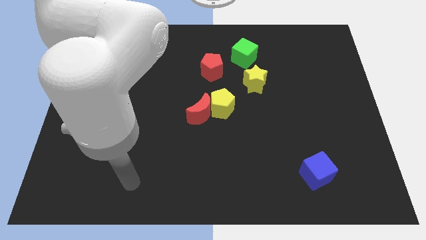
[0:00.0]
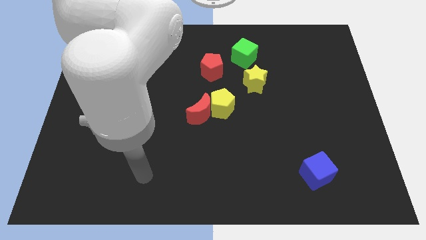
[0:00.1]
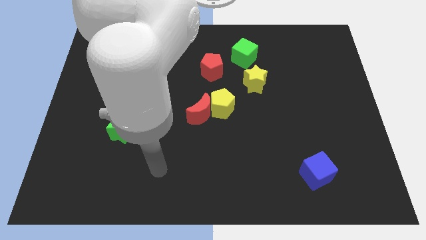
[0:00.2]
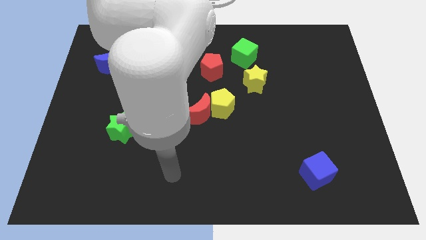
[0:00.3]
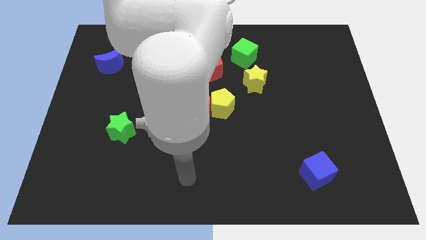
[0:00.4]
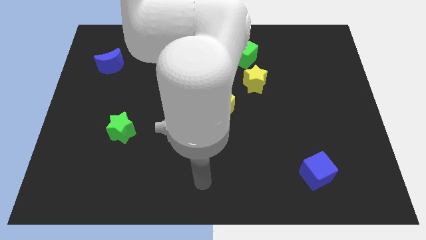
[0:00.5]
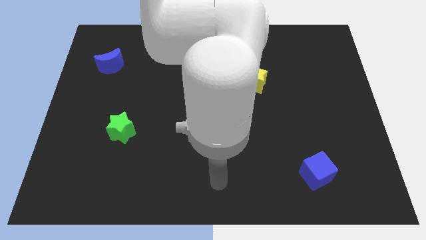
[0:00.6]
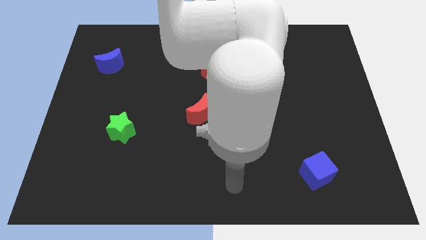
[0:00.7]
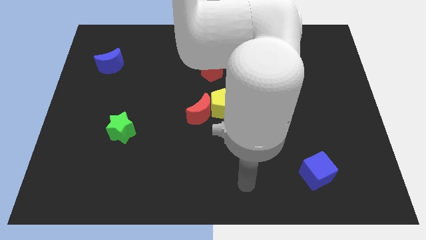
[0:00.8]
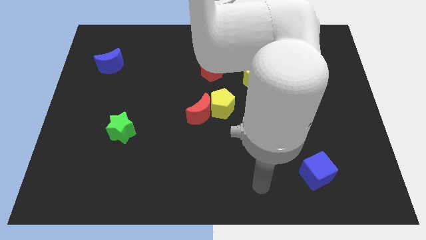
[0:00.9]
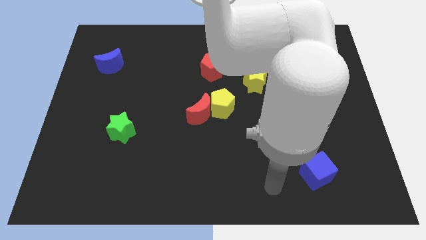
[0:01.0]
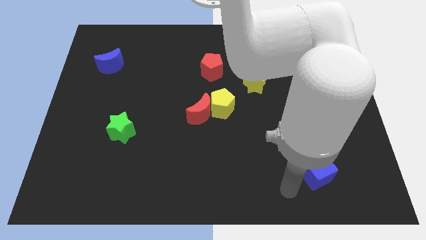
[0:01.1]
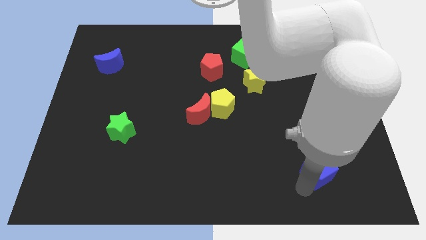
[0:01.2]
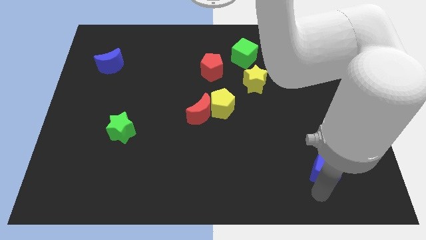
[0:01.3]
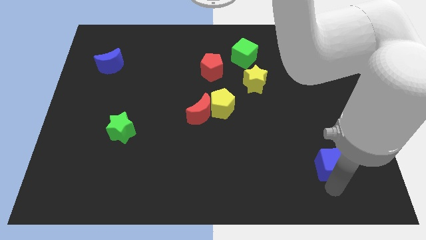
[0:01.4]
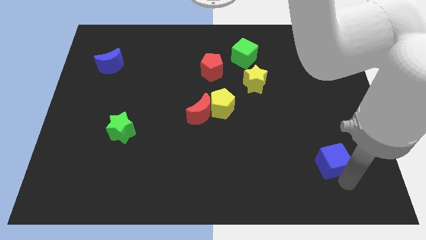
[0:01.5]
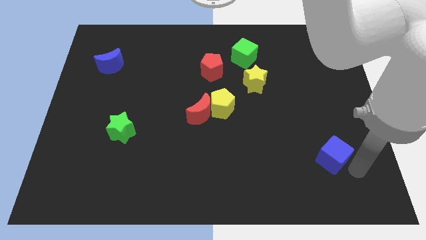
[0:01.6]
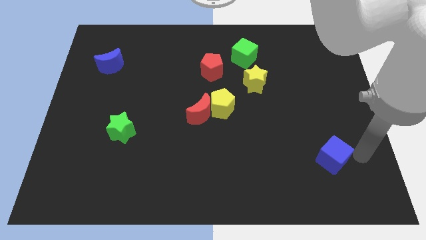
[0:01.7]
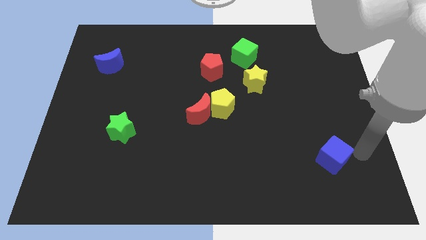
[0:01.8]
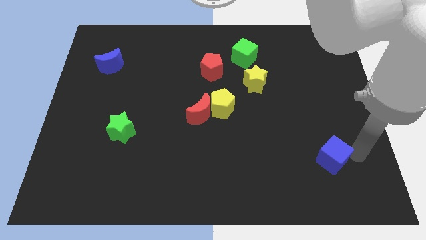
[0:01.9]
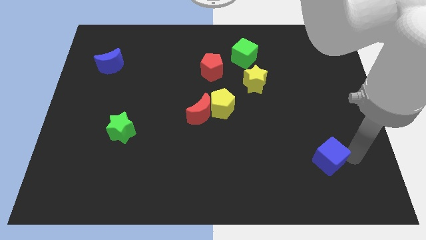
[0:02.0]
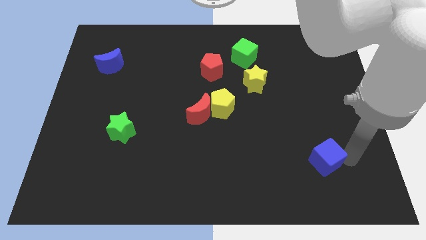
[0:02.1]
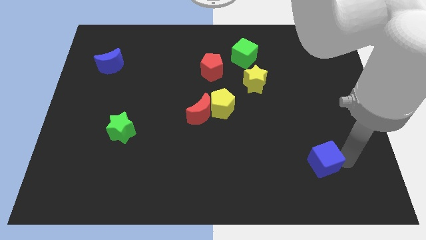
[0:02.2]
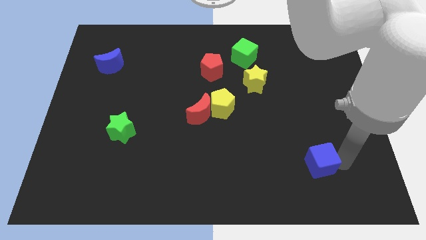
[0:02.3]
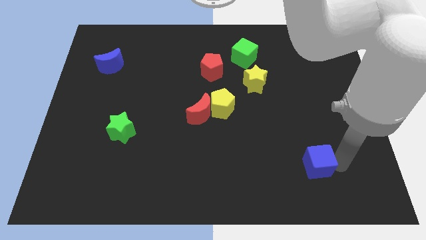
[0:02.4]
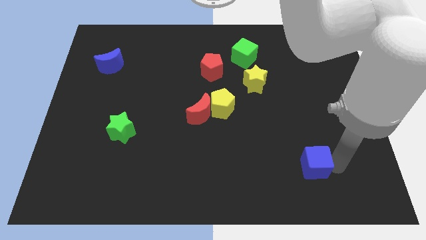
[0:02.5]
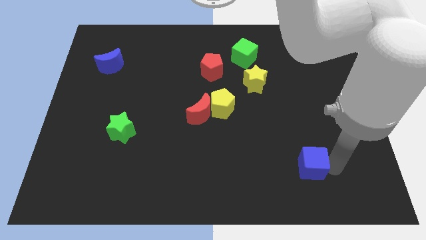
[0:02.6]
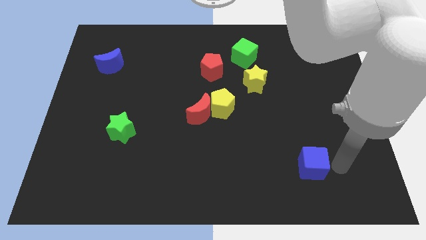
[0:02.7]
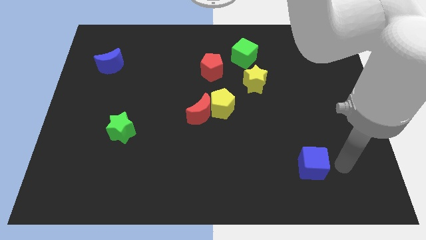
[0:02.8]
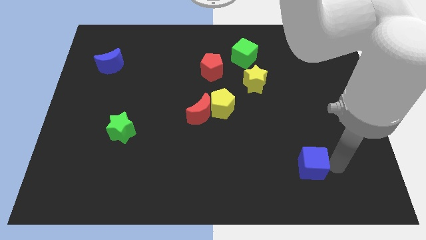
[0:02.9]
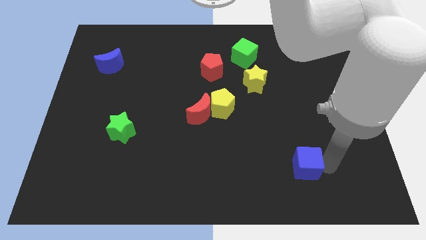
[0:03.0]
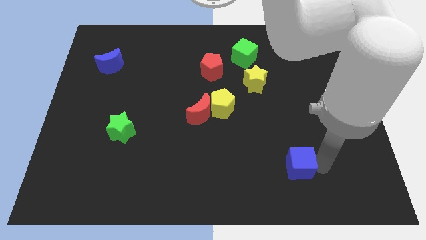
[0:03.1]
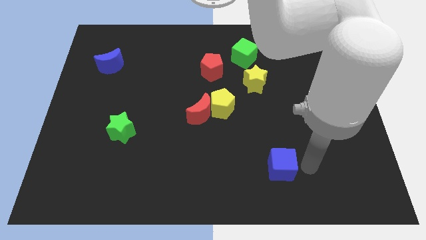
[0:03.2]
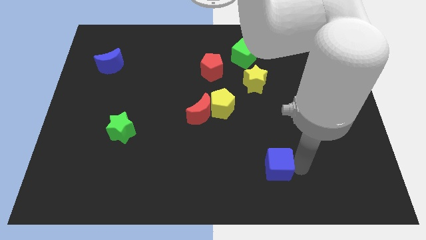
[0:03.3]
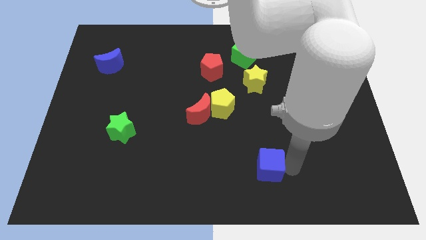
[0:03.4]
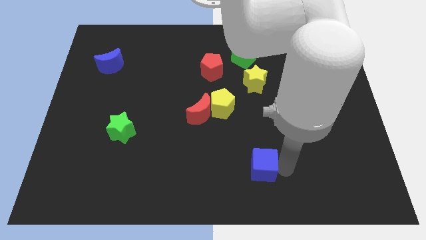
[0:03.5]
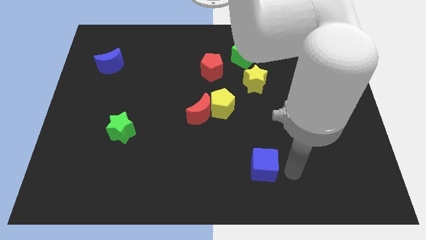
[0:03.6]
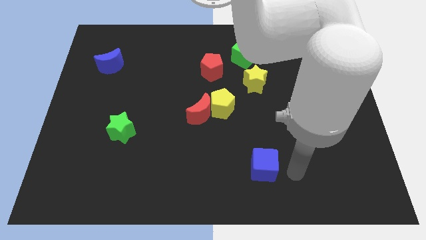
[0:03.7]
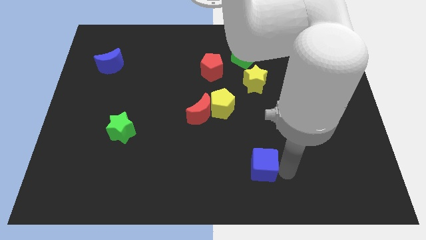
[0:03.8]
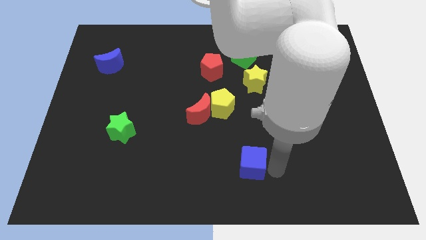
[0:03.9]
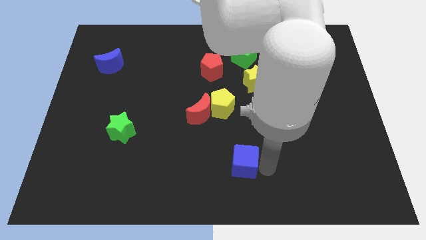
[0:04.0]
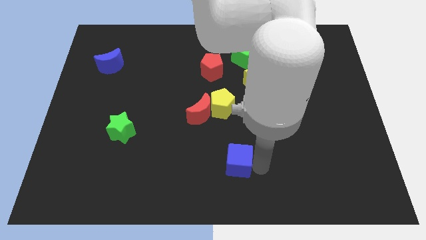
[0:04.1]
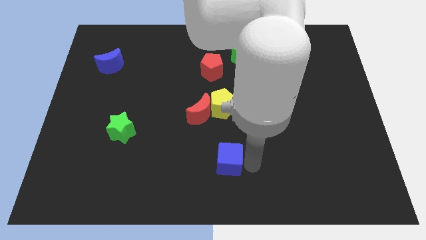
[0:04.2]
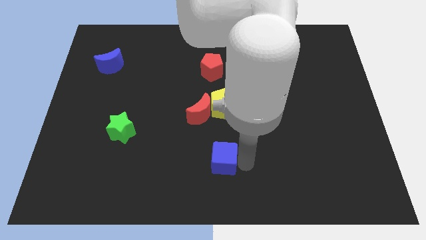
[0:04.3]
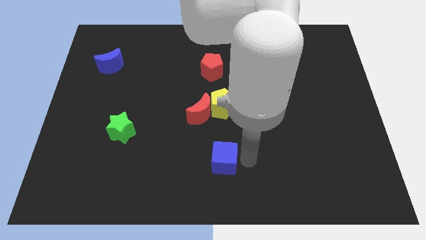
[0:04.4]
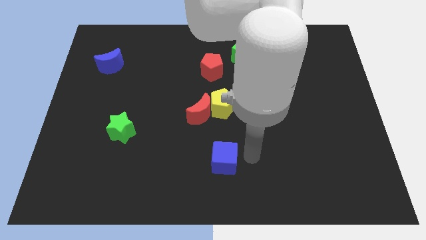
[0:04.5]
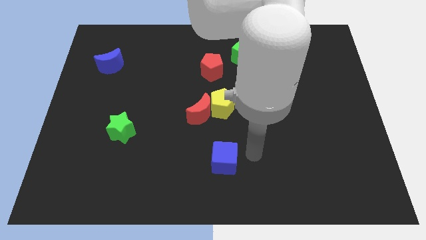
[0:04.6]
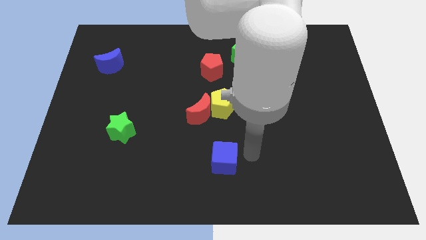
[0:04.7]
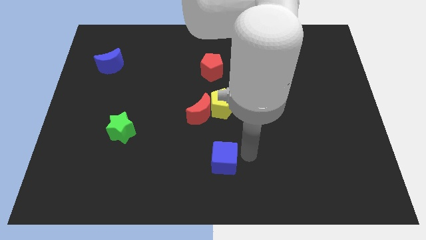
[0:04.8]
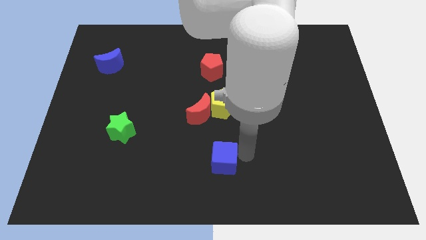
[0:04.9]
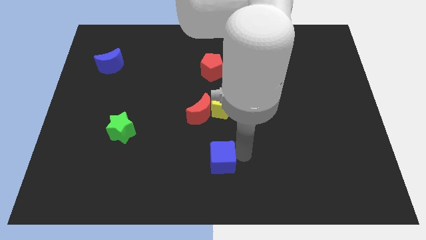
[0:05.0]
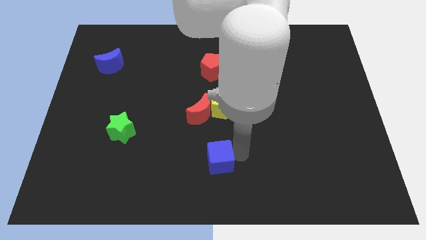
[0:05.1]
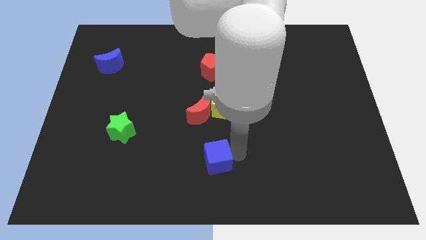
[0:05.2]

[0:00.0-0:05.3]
push the blue cube to the left

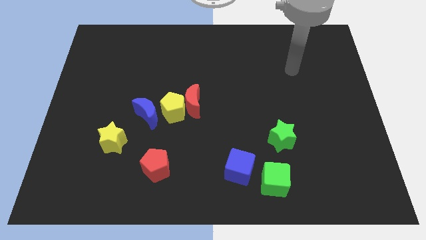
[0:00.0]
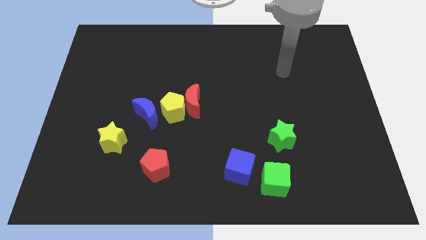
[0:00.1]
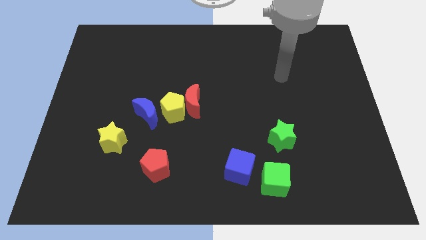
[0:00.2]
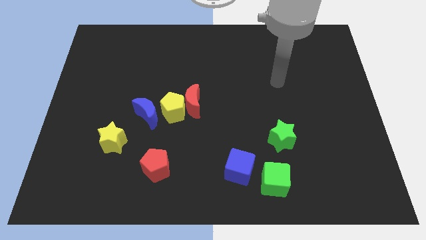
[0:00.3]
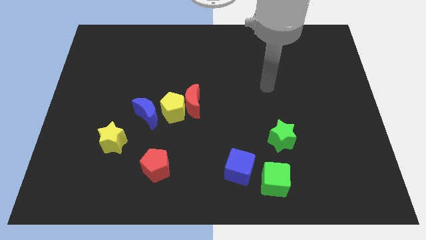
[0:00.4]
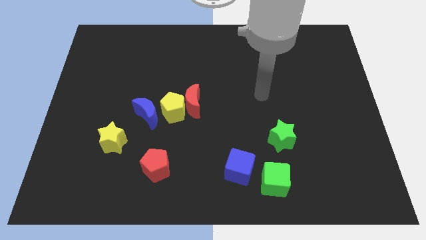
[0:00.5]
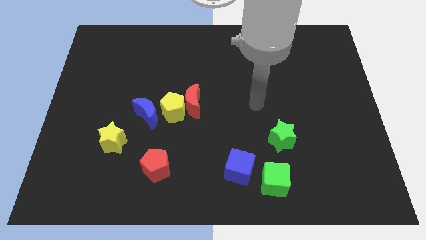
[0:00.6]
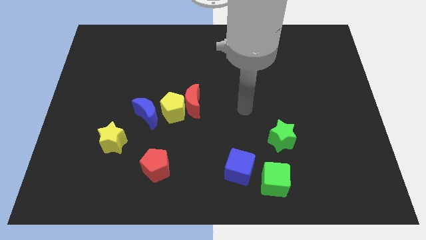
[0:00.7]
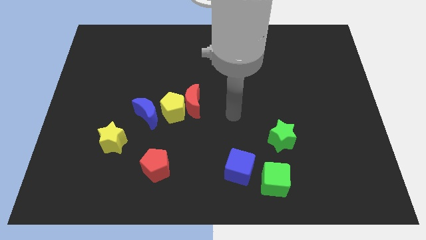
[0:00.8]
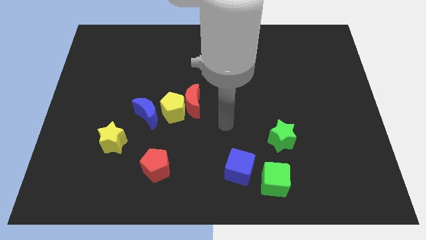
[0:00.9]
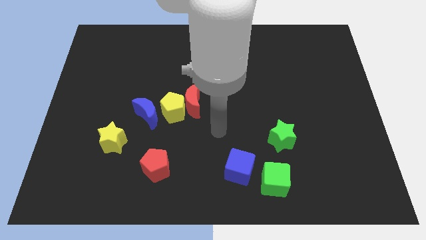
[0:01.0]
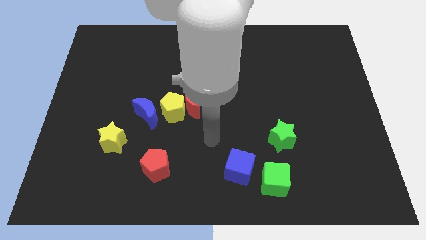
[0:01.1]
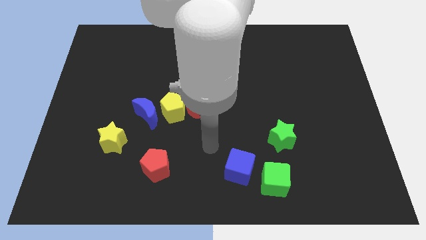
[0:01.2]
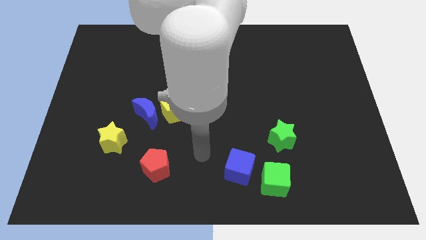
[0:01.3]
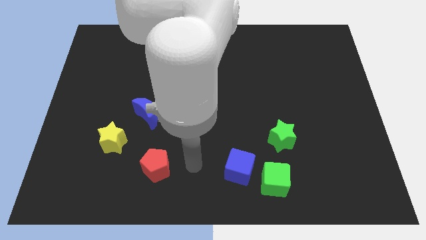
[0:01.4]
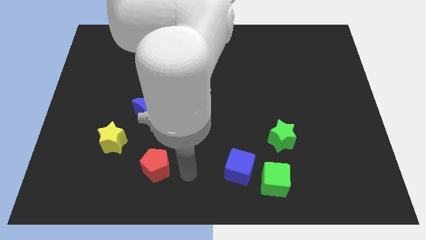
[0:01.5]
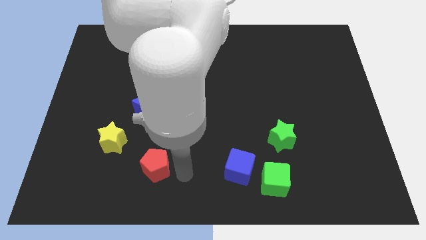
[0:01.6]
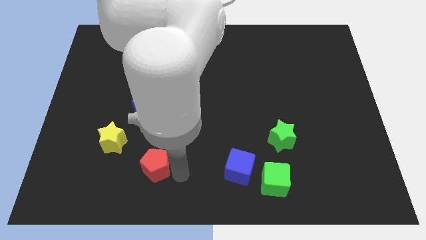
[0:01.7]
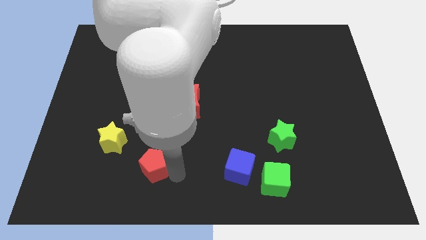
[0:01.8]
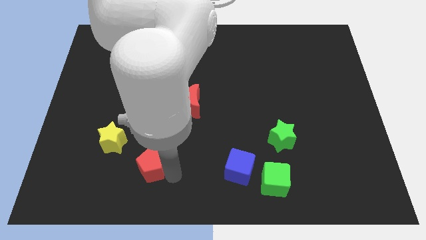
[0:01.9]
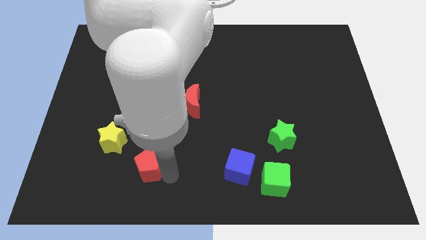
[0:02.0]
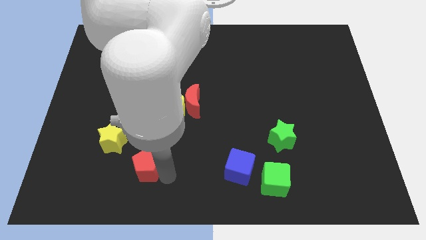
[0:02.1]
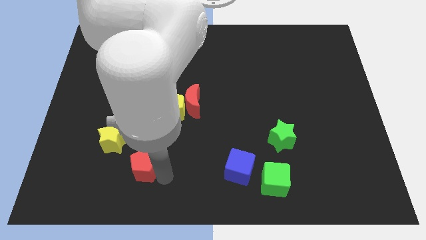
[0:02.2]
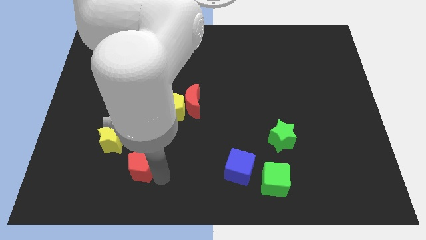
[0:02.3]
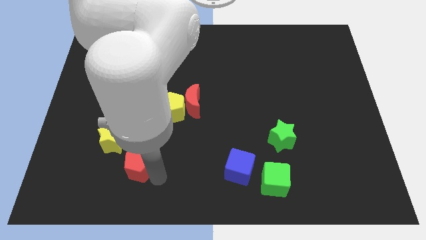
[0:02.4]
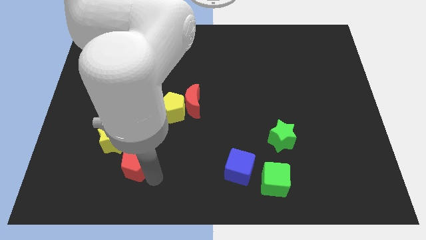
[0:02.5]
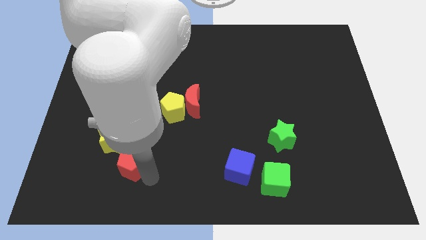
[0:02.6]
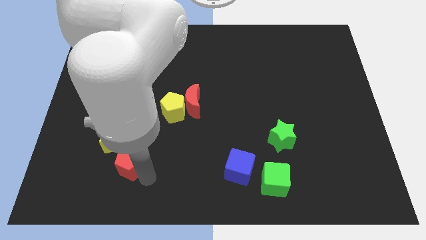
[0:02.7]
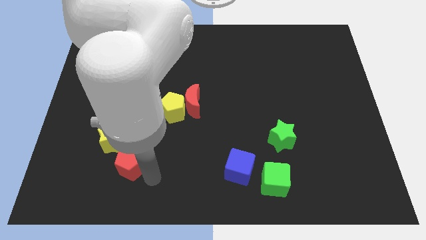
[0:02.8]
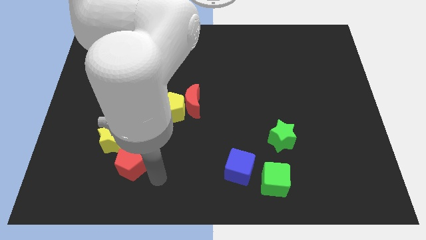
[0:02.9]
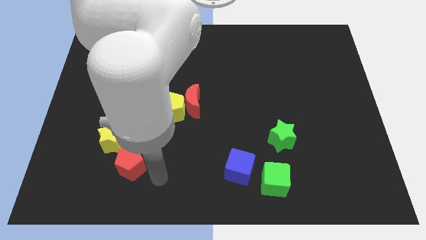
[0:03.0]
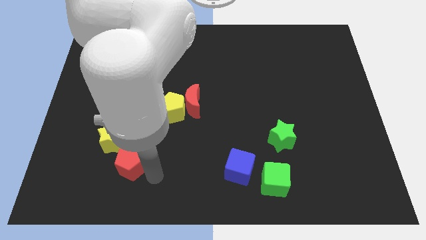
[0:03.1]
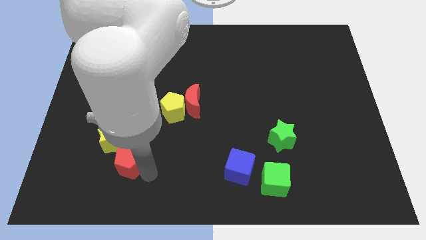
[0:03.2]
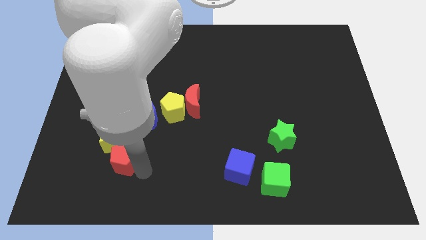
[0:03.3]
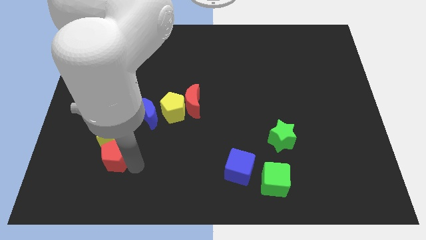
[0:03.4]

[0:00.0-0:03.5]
move the red pentagon upwards and left diagonally somewhat
